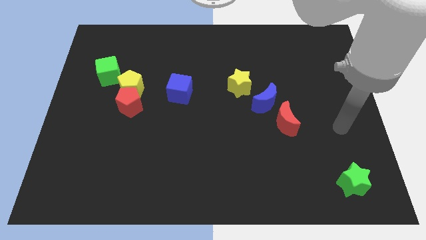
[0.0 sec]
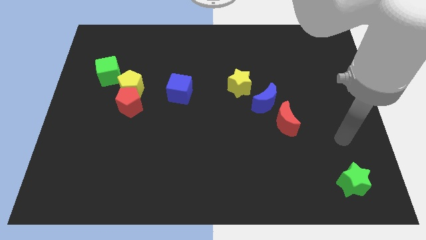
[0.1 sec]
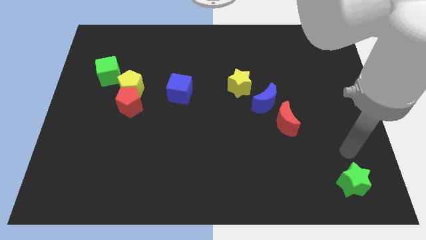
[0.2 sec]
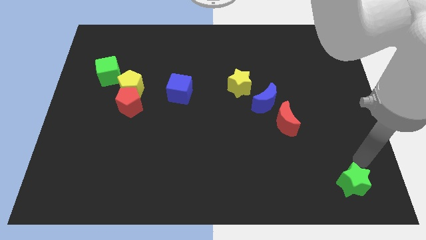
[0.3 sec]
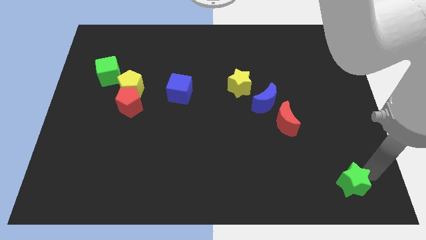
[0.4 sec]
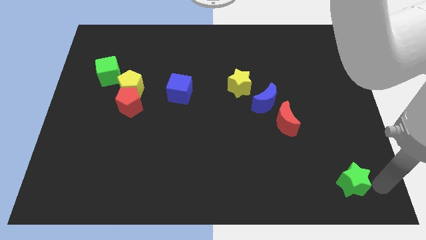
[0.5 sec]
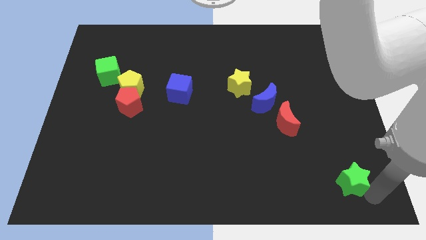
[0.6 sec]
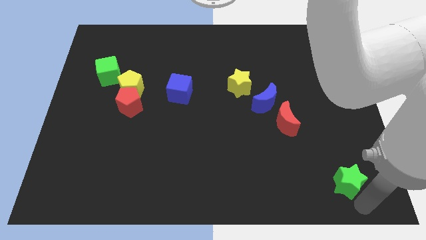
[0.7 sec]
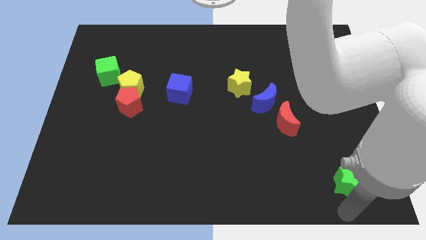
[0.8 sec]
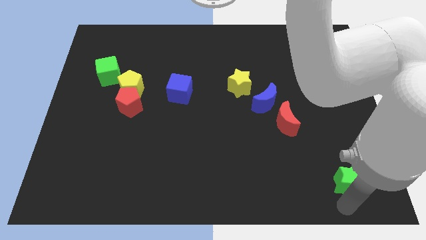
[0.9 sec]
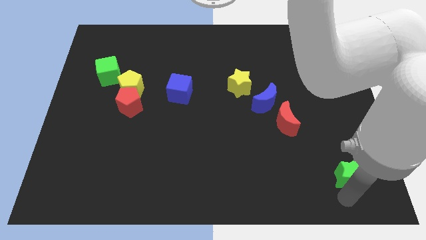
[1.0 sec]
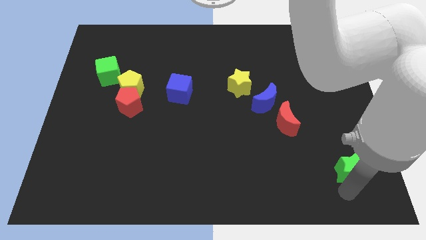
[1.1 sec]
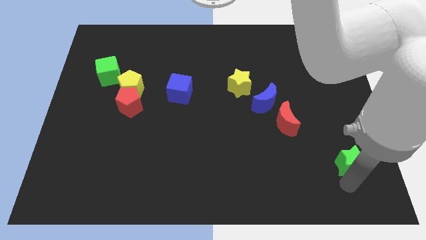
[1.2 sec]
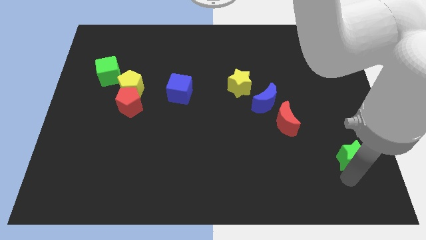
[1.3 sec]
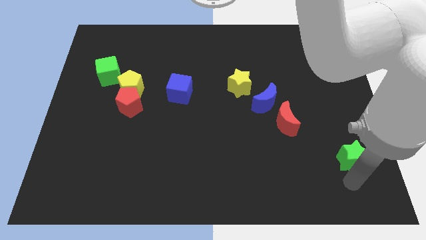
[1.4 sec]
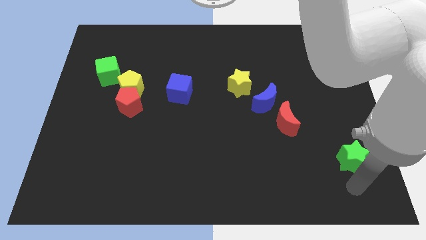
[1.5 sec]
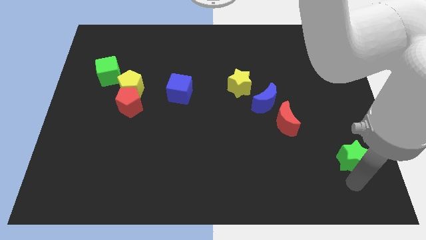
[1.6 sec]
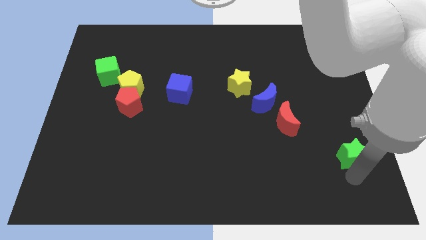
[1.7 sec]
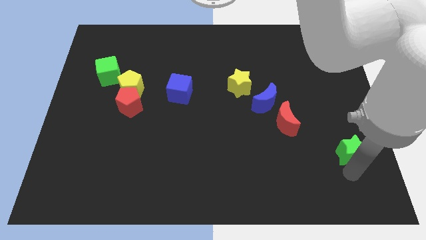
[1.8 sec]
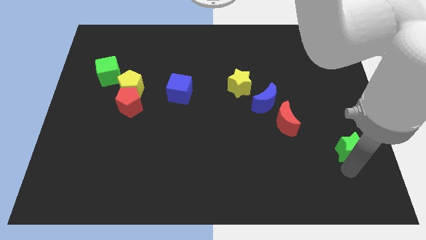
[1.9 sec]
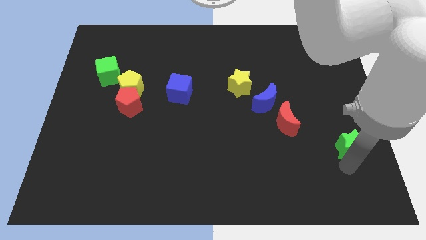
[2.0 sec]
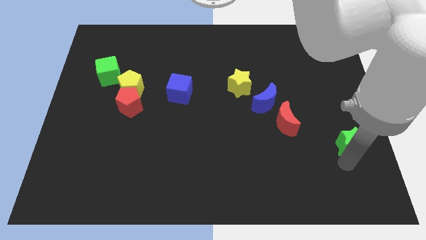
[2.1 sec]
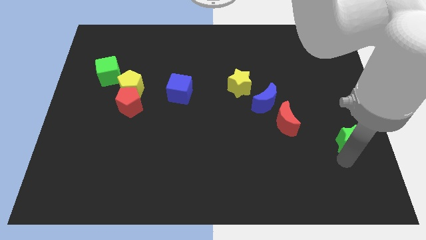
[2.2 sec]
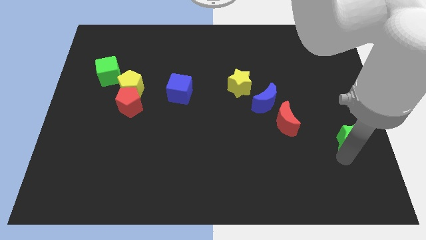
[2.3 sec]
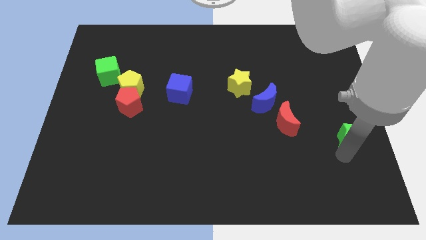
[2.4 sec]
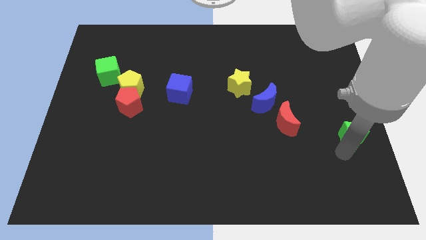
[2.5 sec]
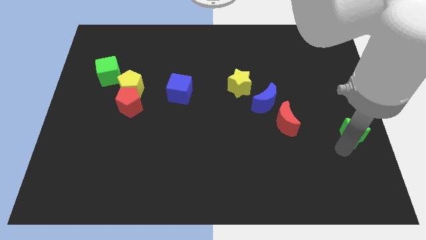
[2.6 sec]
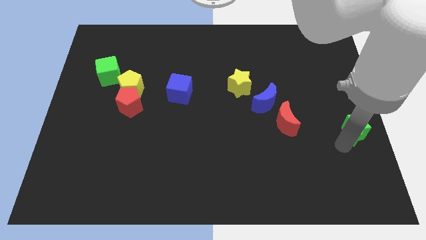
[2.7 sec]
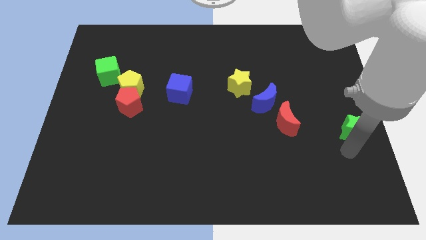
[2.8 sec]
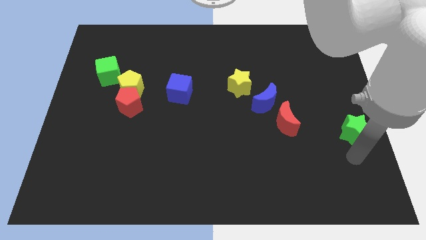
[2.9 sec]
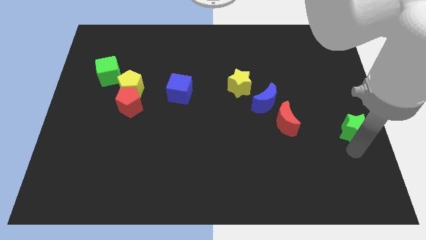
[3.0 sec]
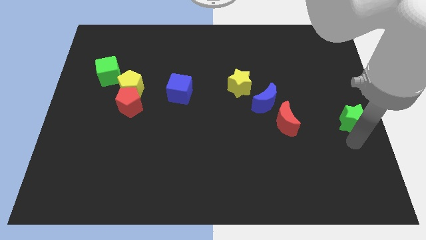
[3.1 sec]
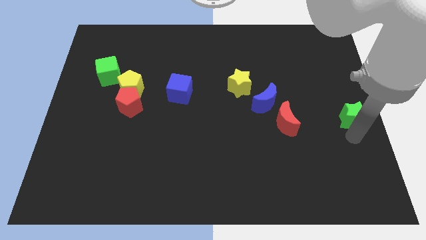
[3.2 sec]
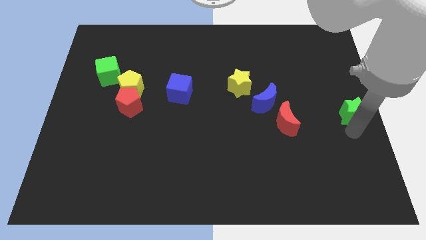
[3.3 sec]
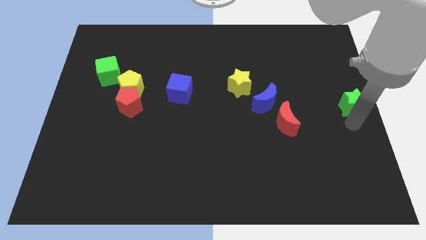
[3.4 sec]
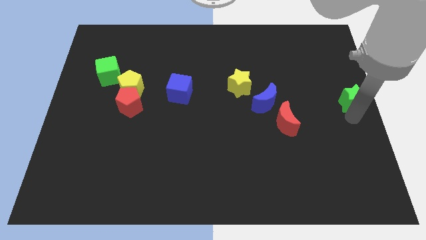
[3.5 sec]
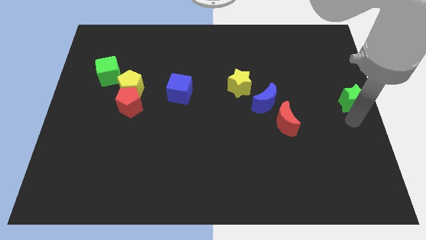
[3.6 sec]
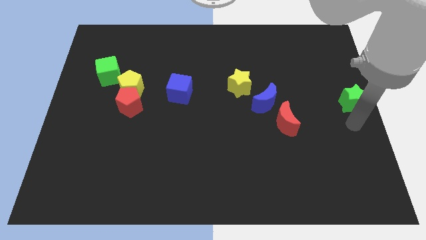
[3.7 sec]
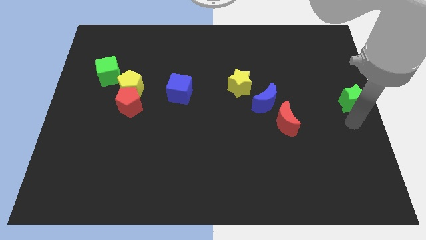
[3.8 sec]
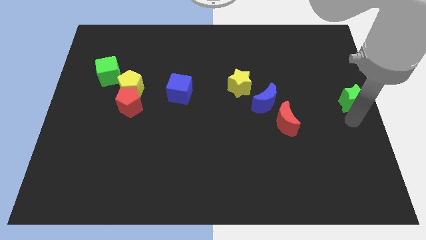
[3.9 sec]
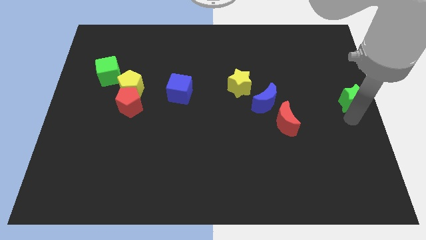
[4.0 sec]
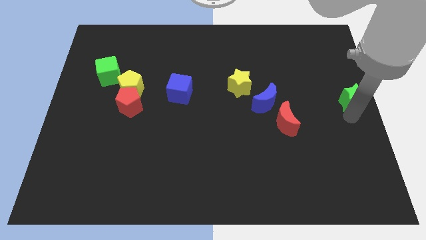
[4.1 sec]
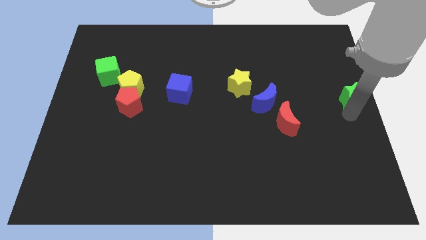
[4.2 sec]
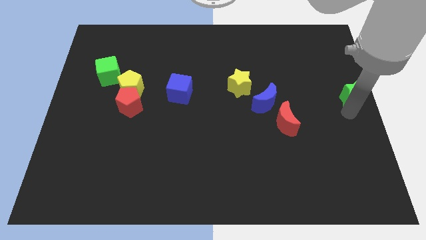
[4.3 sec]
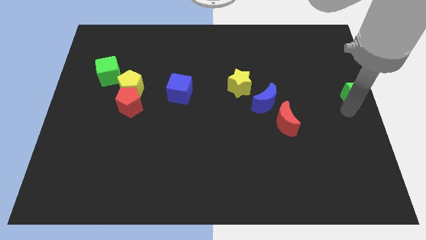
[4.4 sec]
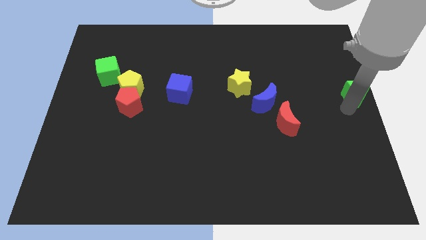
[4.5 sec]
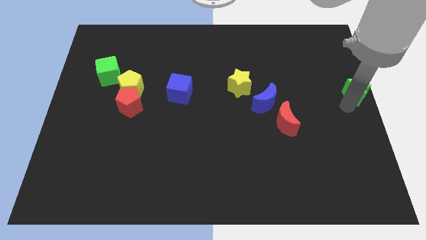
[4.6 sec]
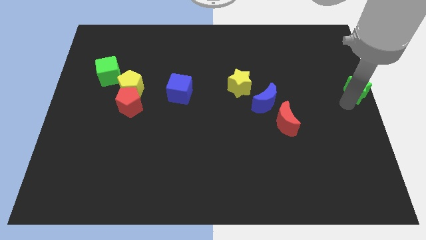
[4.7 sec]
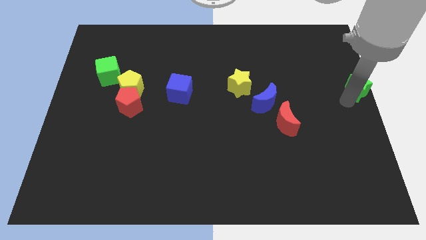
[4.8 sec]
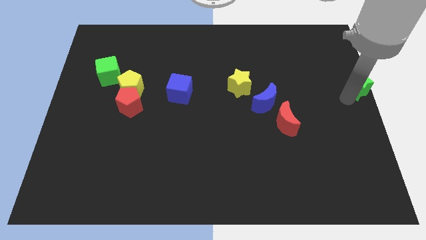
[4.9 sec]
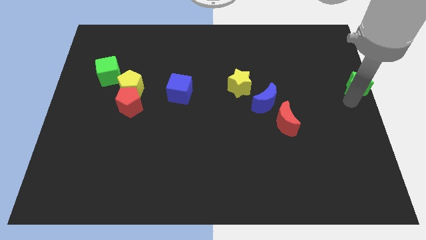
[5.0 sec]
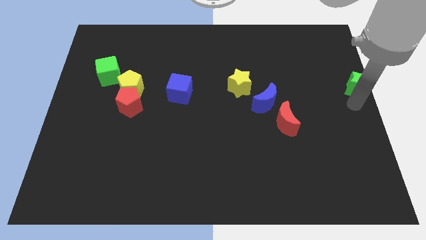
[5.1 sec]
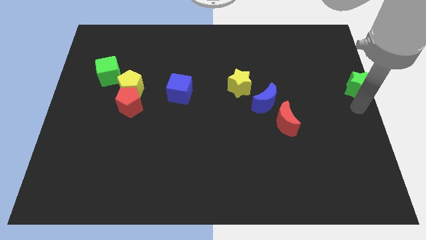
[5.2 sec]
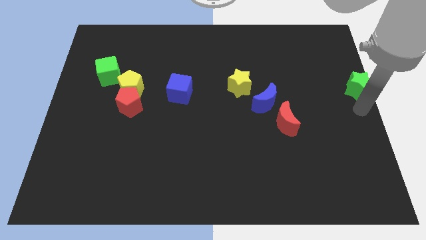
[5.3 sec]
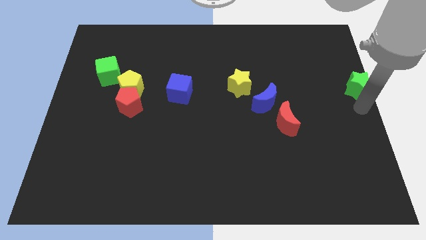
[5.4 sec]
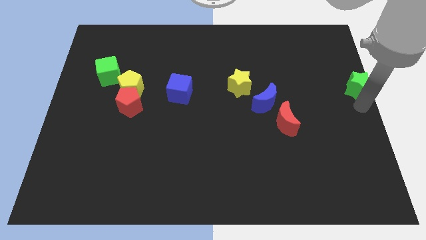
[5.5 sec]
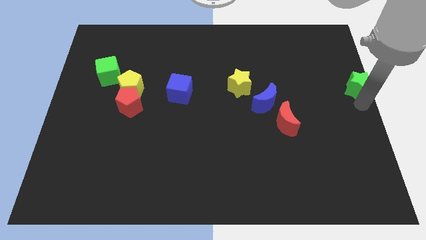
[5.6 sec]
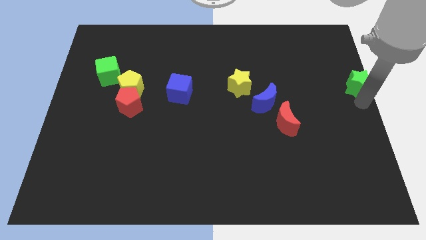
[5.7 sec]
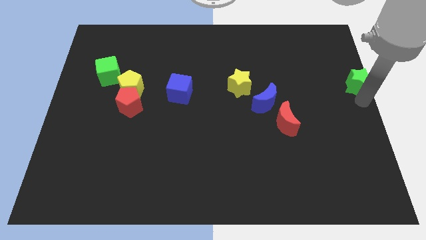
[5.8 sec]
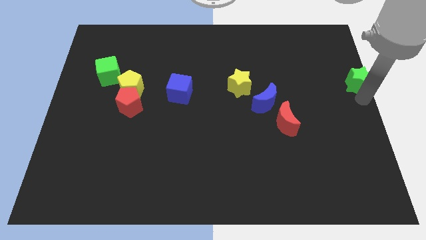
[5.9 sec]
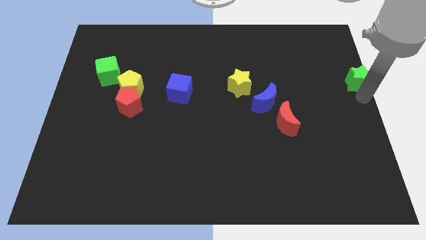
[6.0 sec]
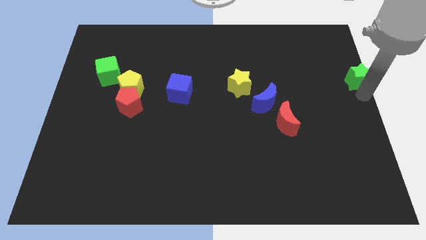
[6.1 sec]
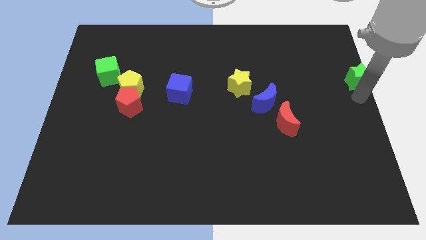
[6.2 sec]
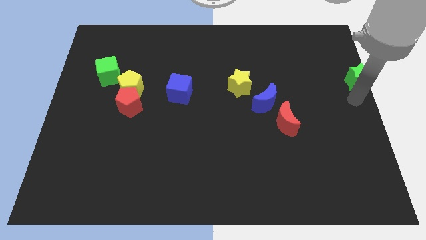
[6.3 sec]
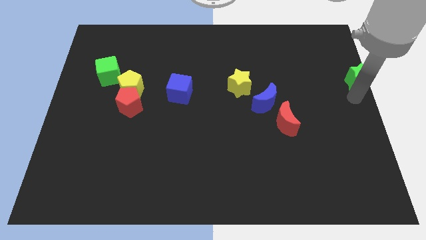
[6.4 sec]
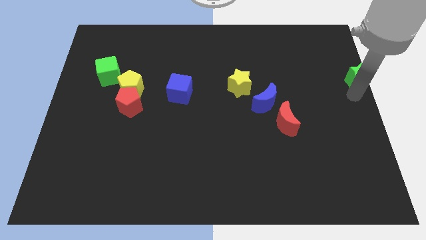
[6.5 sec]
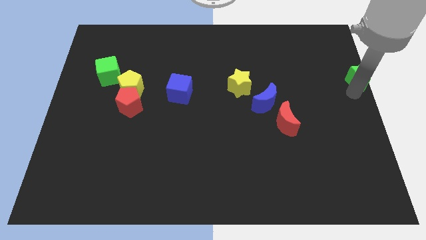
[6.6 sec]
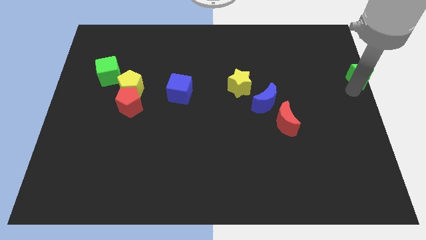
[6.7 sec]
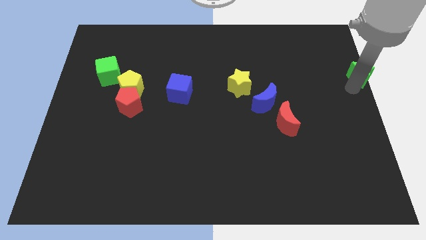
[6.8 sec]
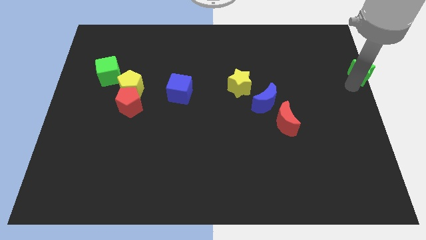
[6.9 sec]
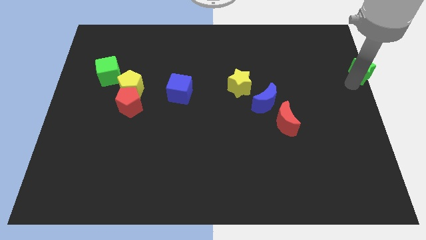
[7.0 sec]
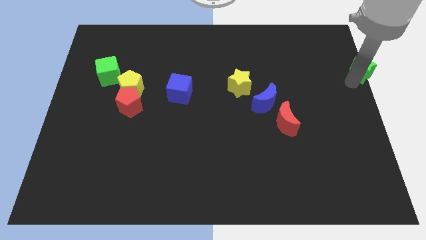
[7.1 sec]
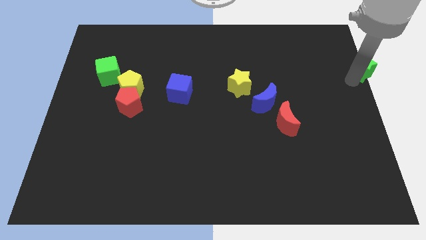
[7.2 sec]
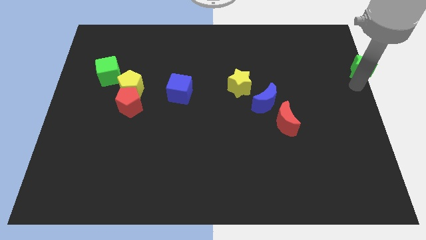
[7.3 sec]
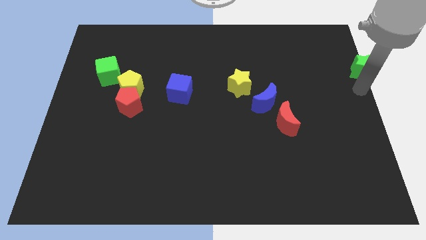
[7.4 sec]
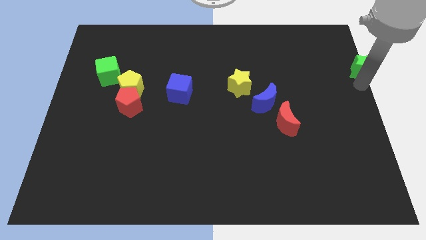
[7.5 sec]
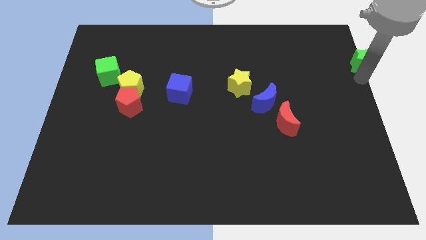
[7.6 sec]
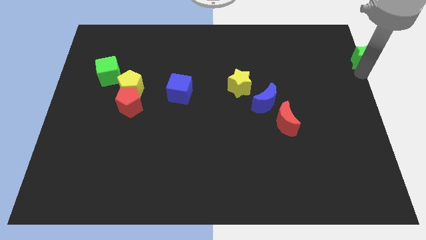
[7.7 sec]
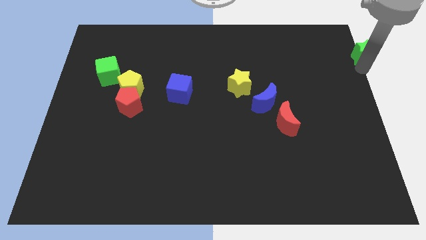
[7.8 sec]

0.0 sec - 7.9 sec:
move the green star to the upper right corner
